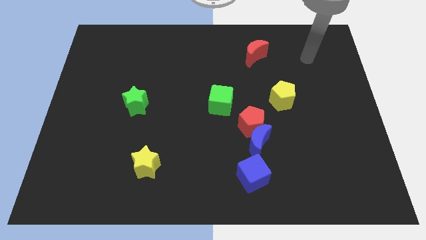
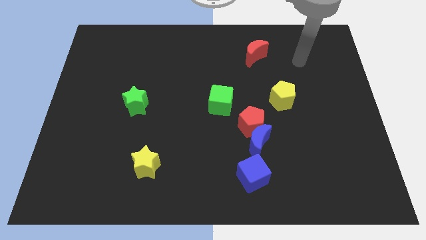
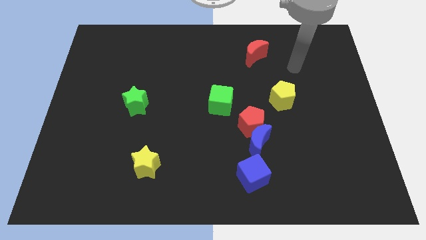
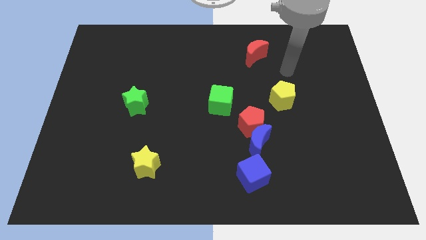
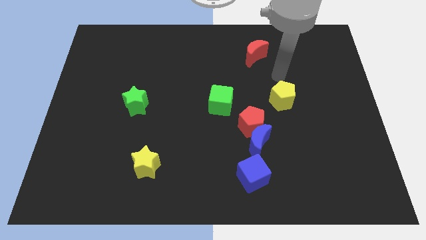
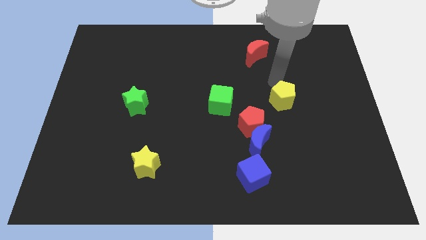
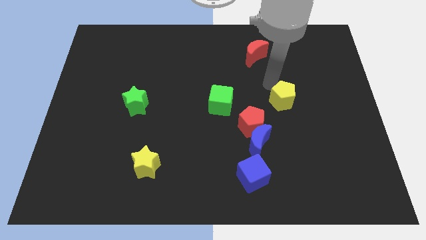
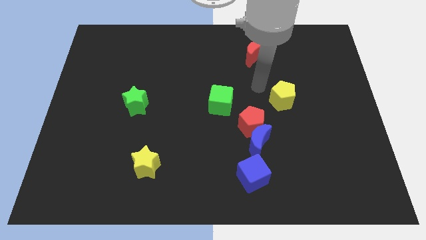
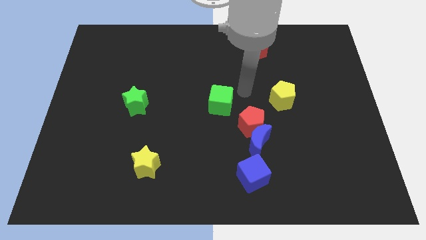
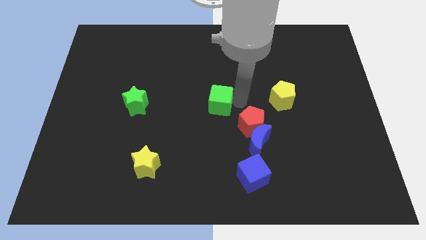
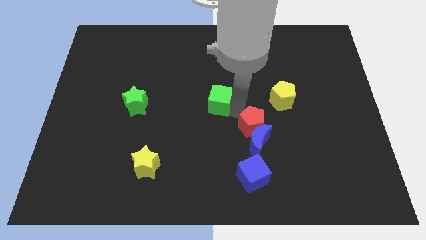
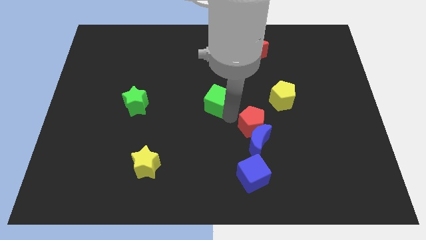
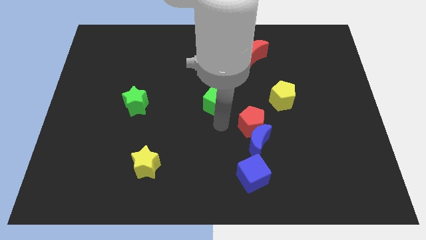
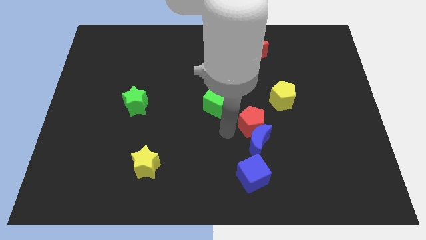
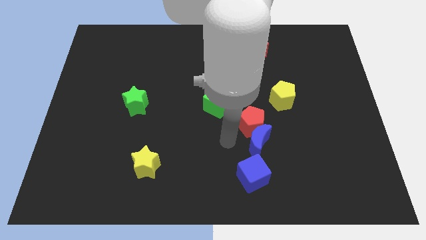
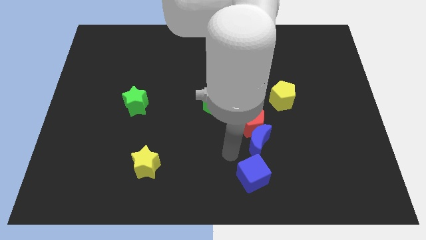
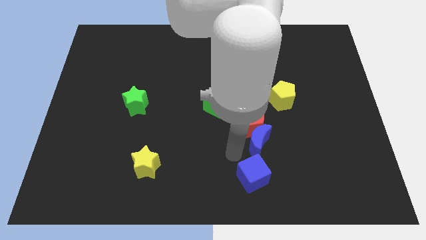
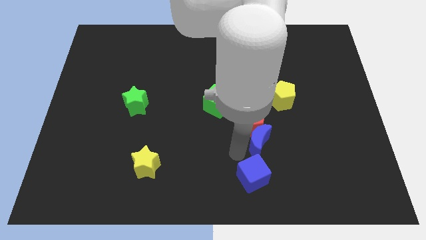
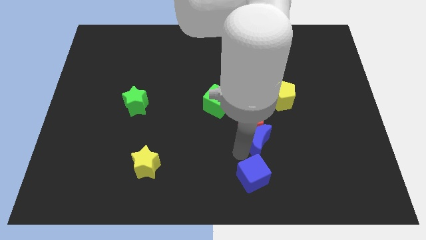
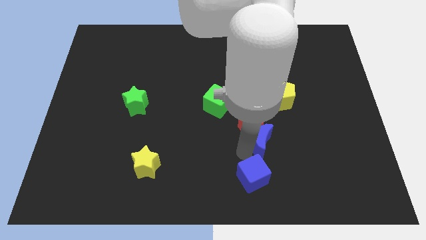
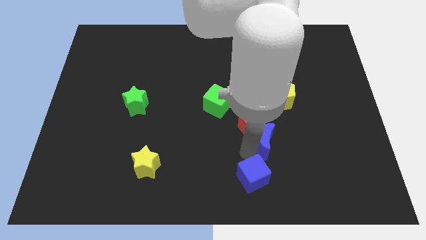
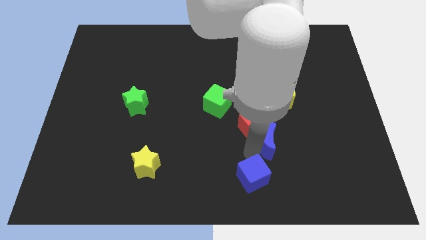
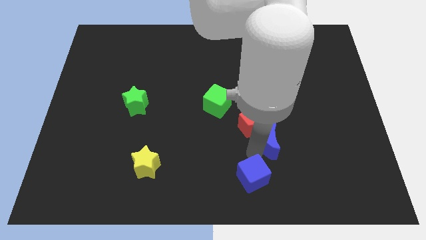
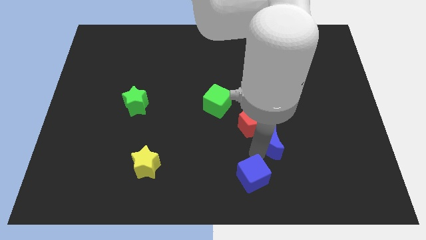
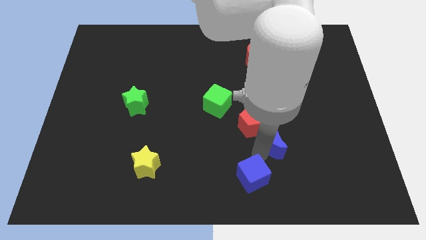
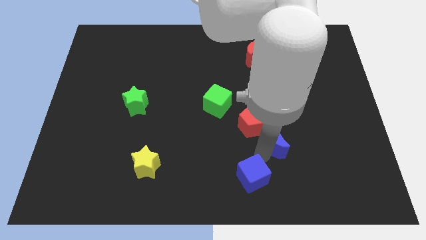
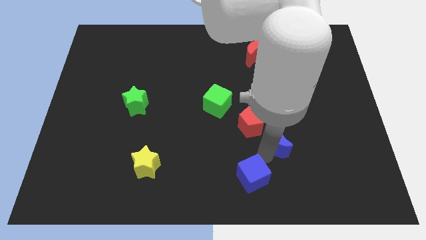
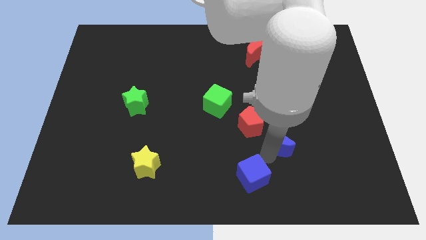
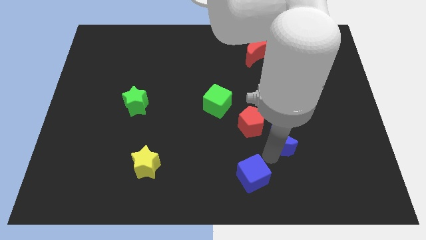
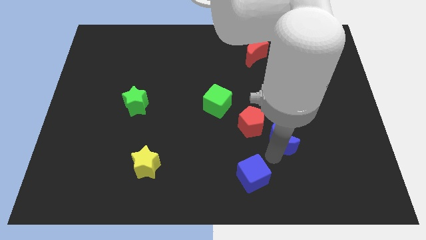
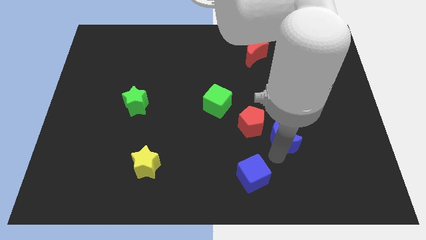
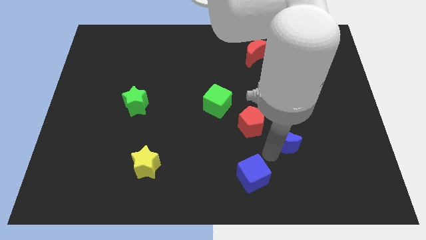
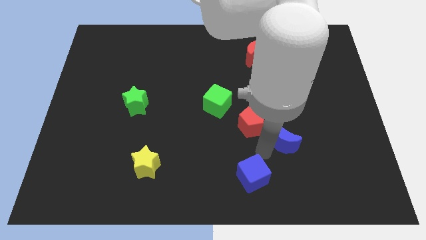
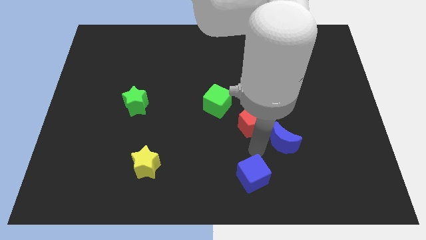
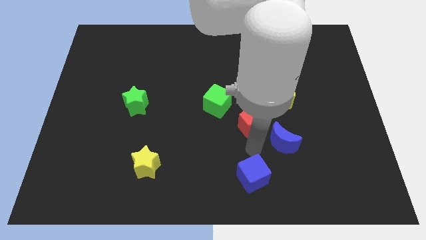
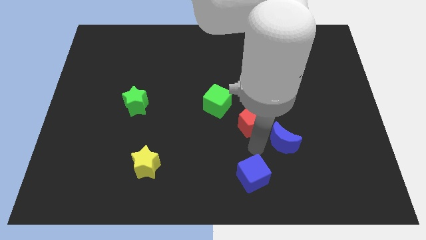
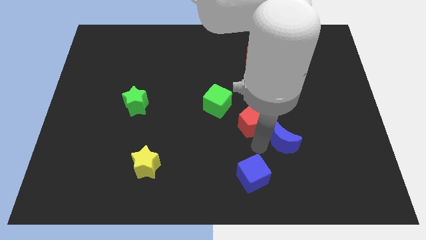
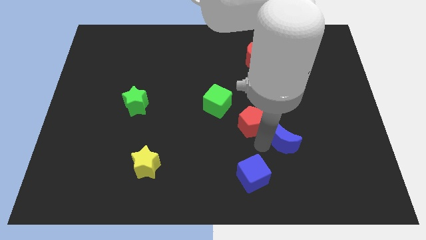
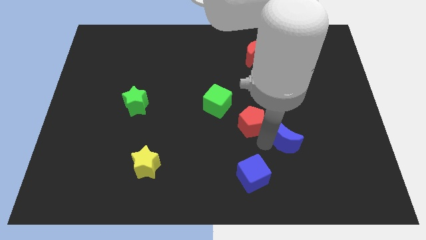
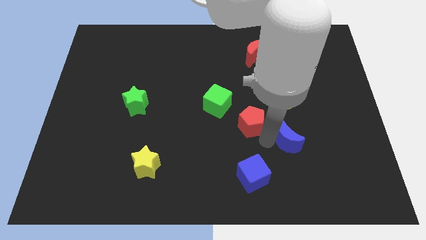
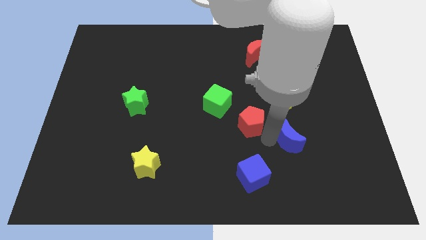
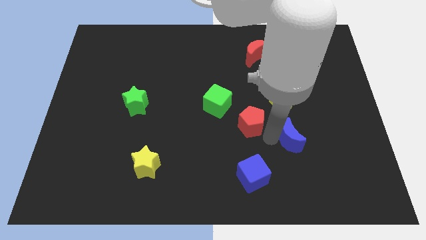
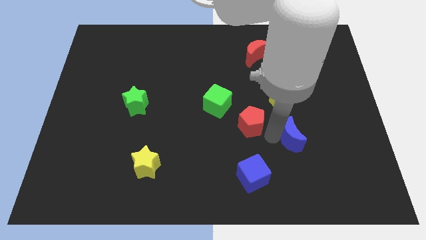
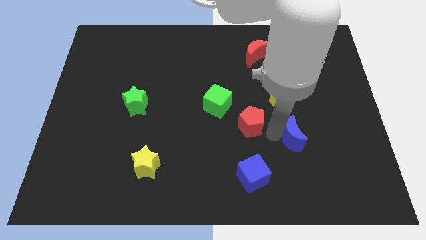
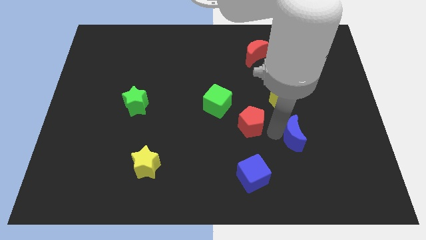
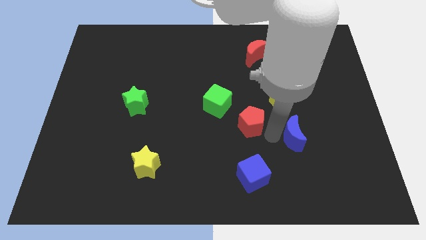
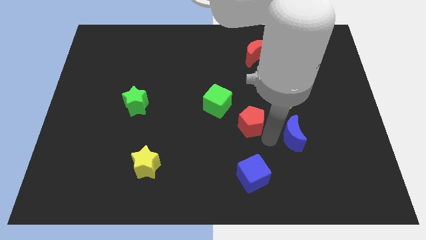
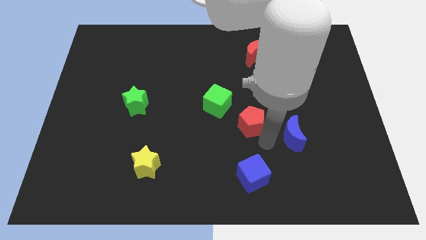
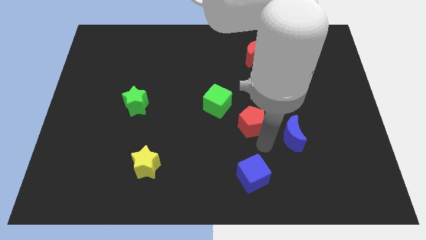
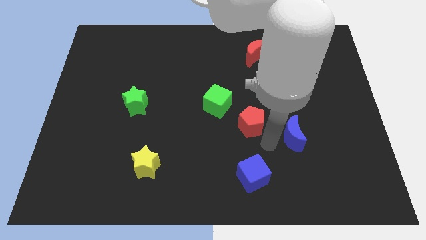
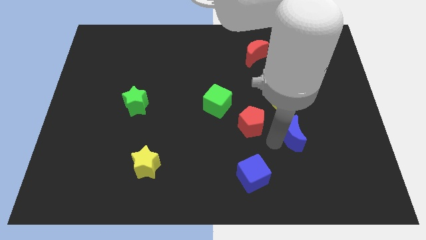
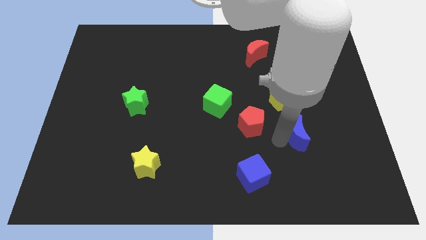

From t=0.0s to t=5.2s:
move the blue moon away from the red pentagon and blue cube

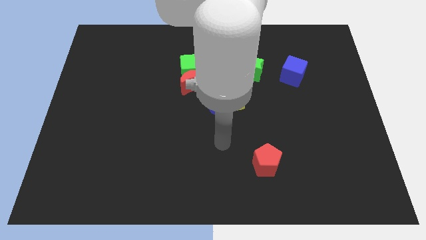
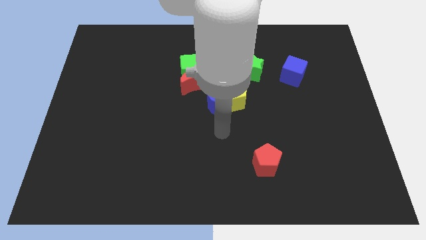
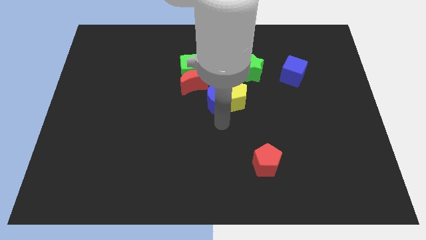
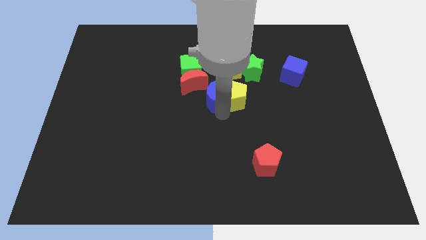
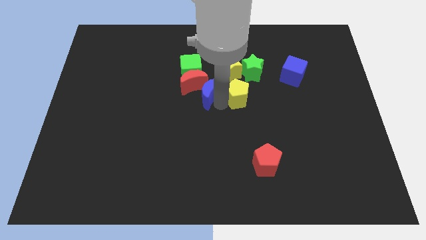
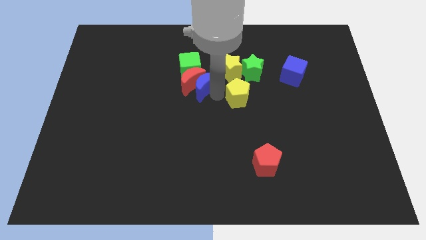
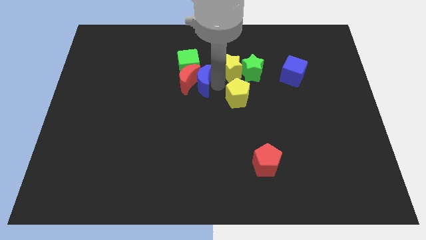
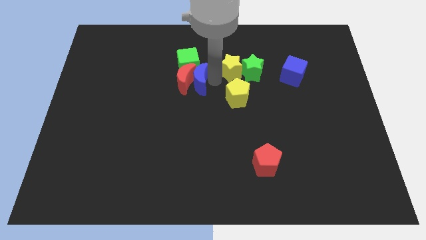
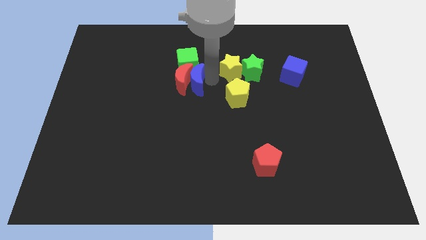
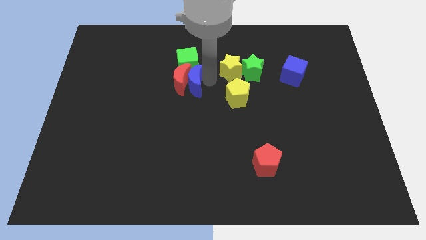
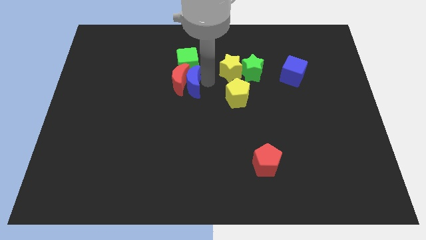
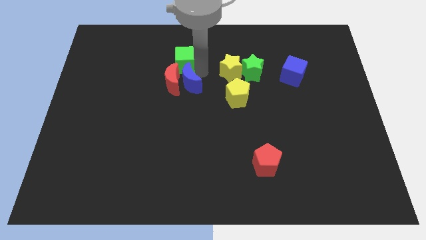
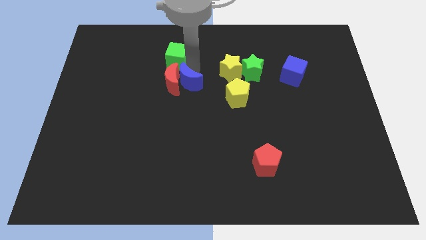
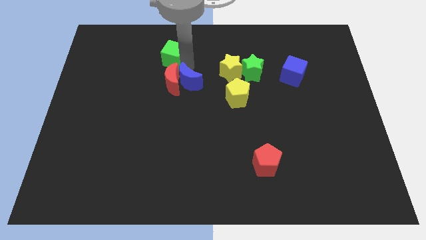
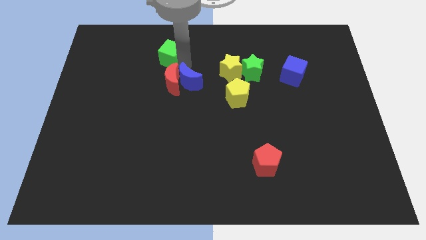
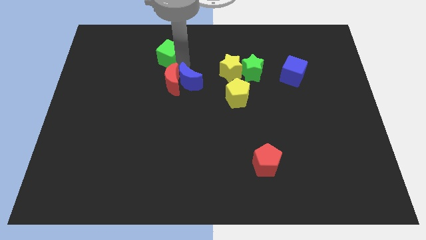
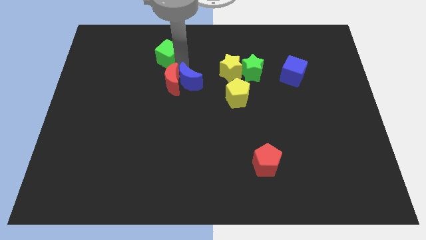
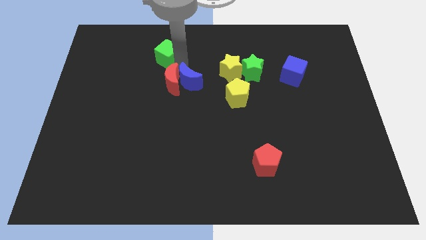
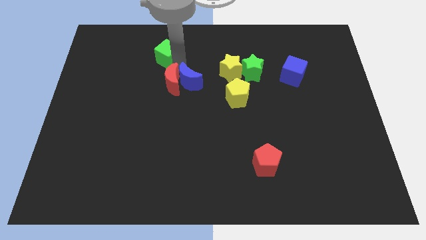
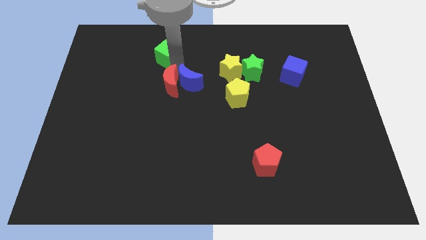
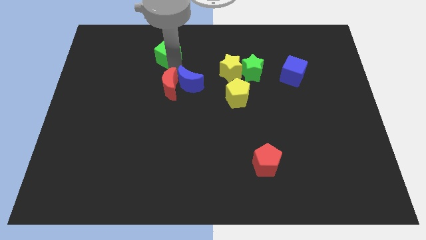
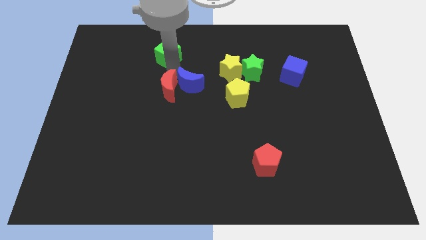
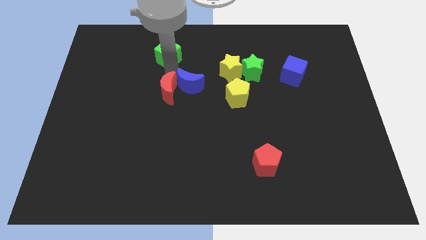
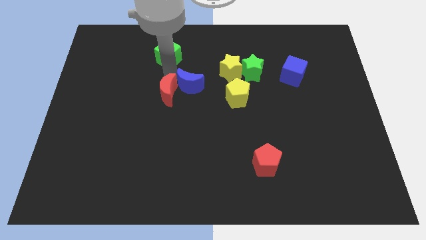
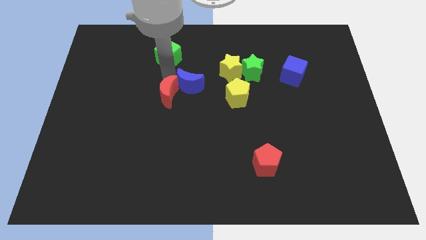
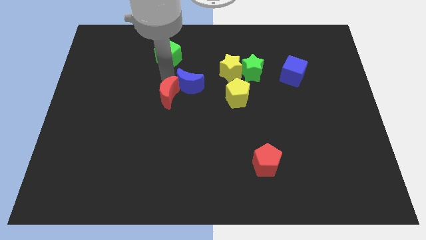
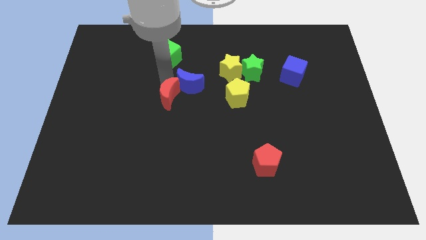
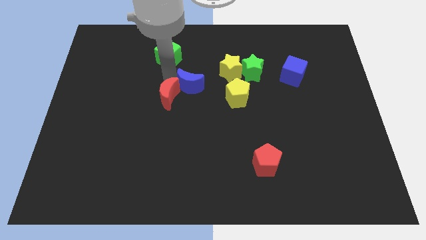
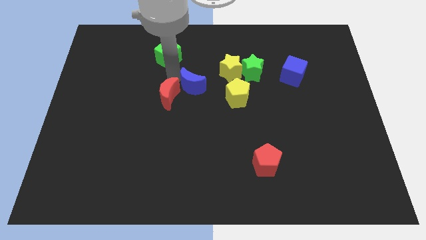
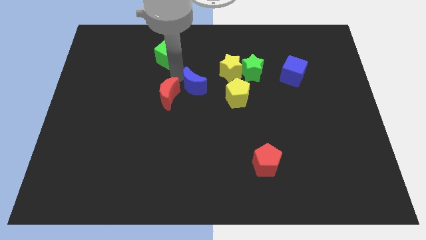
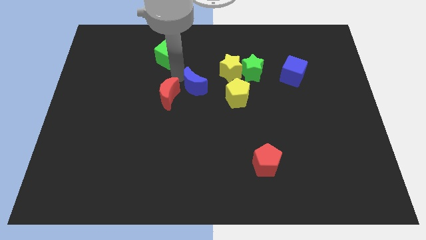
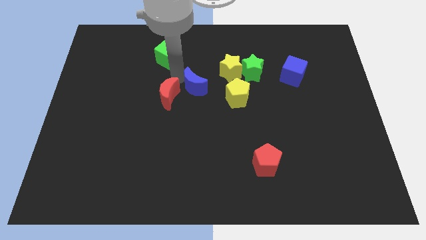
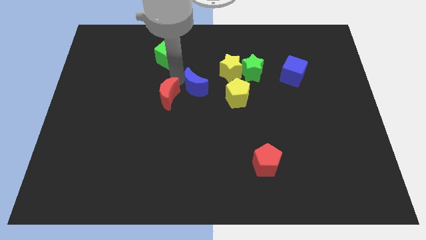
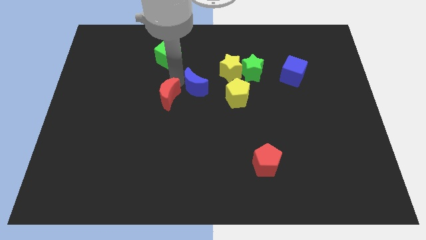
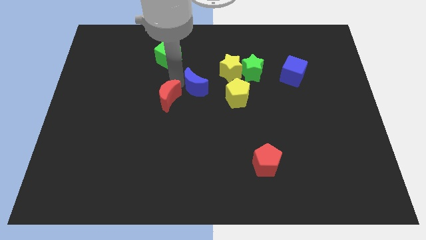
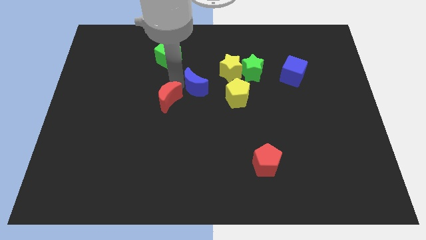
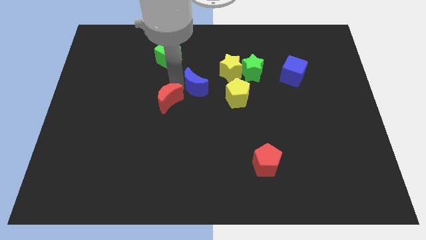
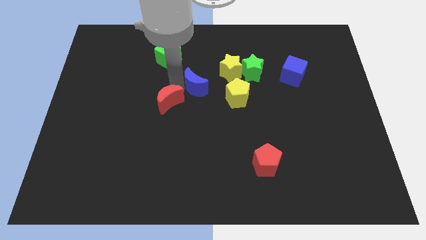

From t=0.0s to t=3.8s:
pull the red moon apart from the green cube and blue moon

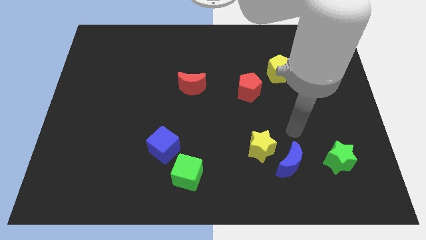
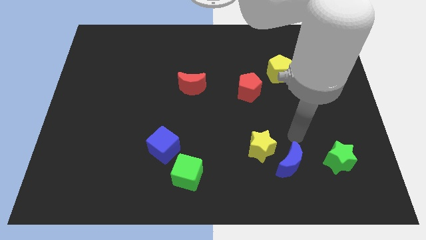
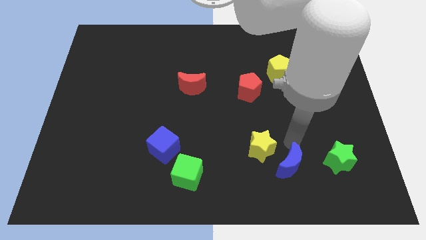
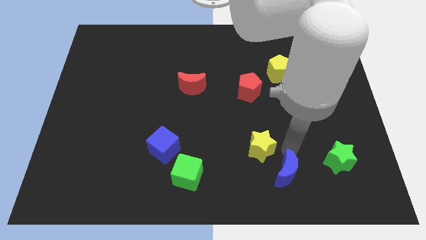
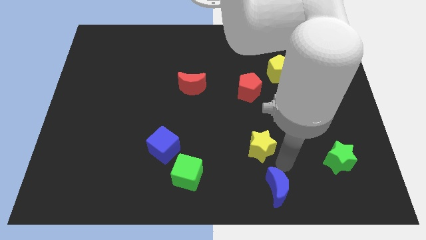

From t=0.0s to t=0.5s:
move the yellow star away from the blue moon
